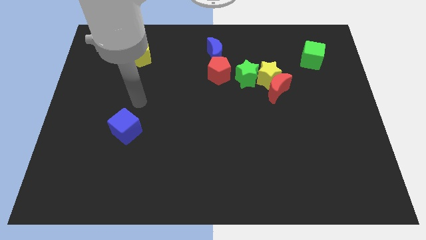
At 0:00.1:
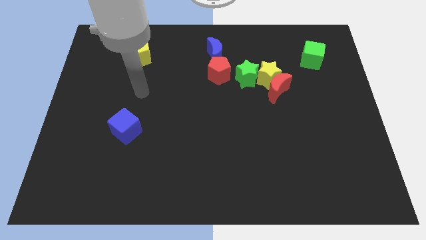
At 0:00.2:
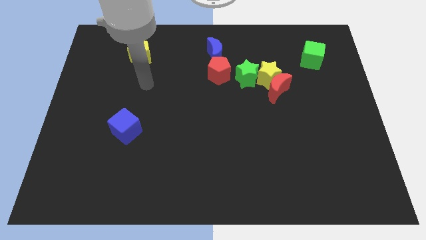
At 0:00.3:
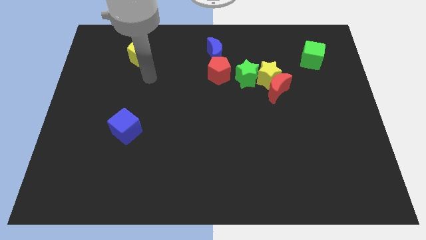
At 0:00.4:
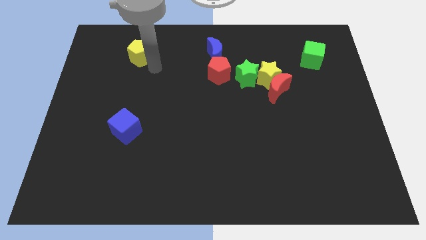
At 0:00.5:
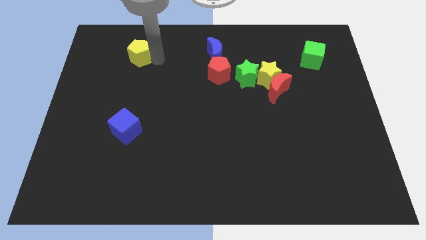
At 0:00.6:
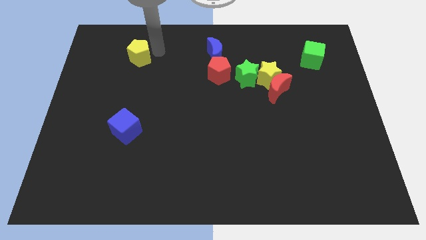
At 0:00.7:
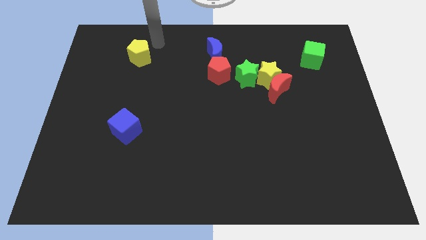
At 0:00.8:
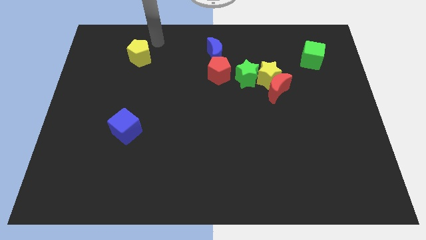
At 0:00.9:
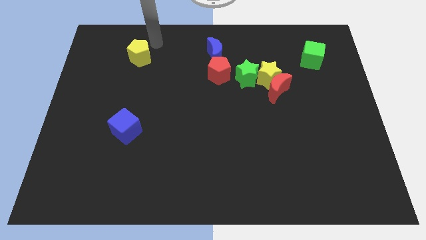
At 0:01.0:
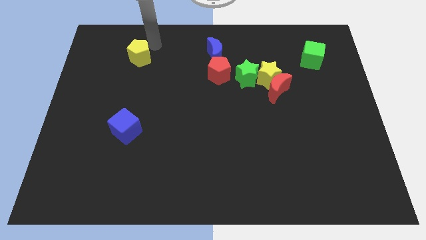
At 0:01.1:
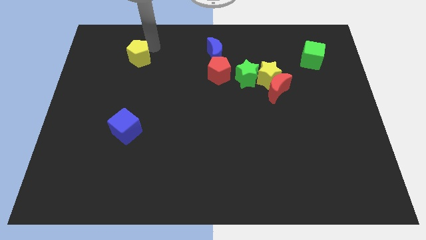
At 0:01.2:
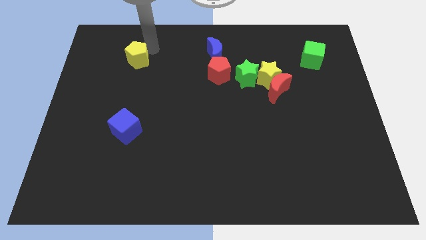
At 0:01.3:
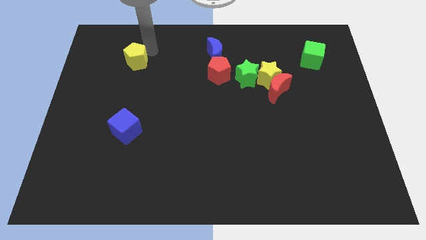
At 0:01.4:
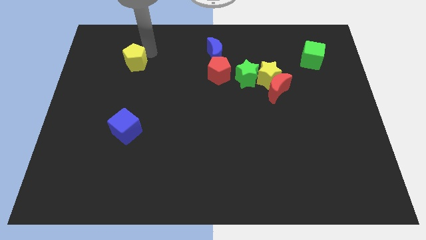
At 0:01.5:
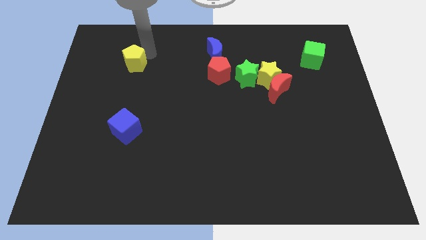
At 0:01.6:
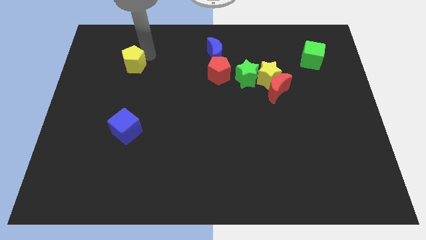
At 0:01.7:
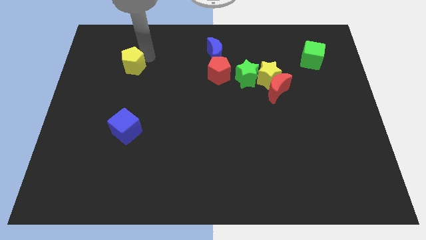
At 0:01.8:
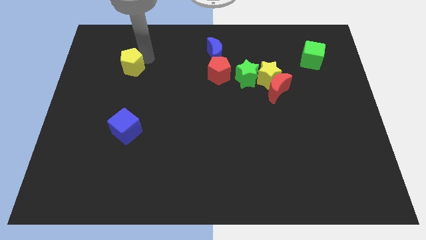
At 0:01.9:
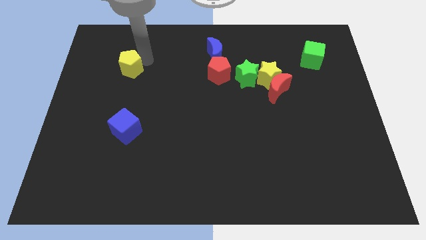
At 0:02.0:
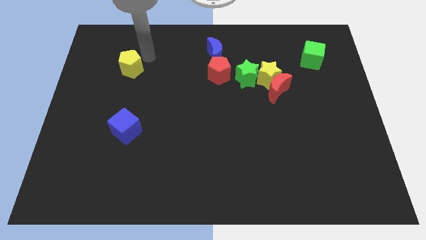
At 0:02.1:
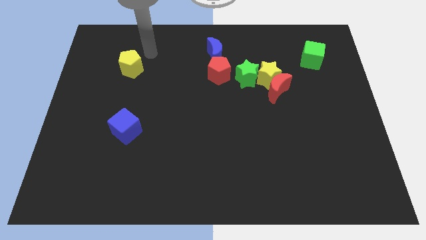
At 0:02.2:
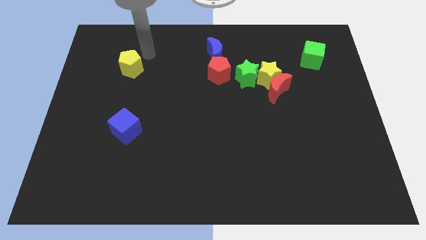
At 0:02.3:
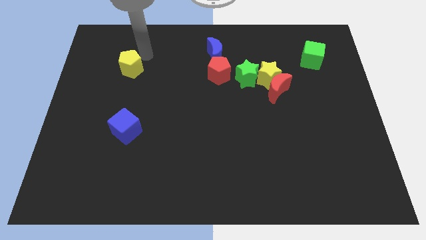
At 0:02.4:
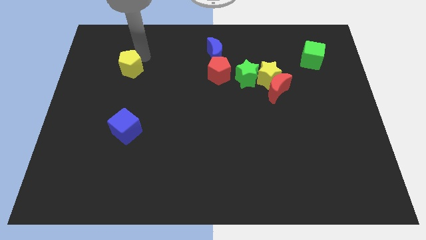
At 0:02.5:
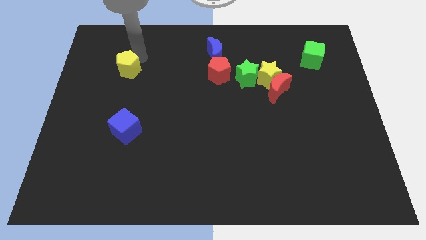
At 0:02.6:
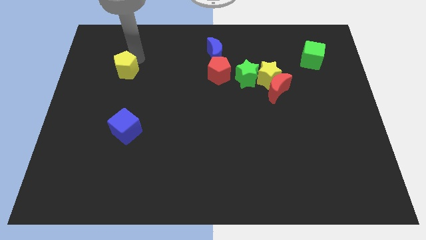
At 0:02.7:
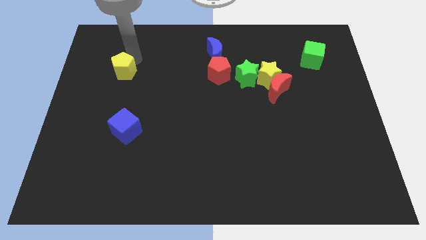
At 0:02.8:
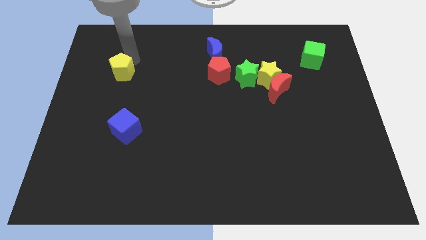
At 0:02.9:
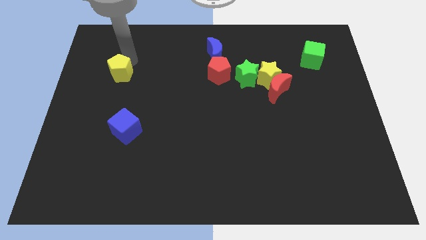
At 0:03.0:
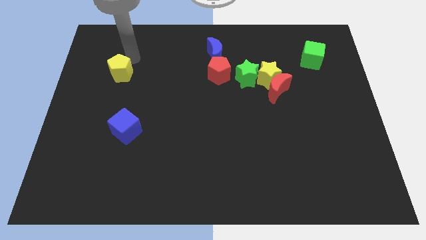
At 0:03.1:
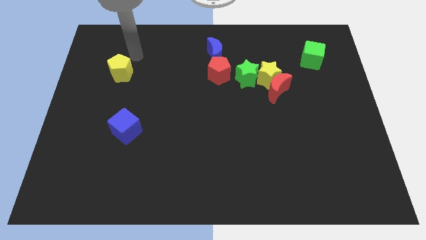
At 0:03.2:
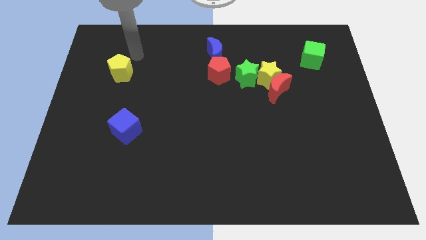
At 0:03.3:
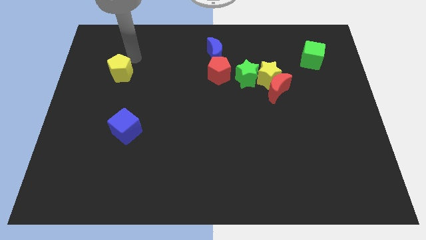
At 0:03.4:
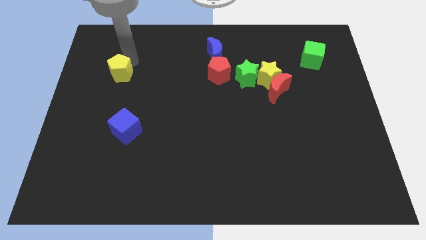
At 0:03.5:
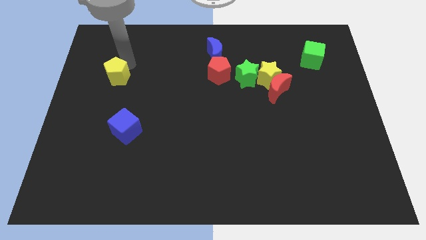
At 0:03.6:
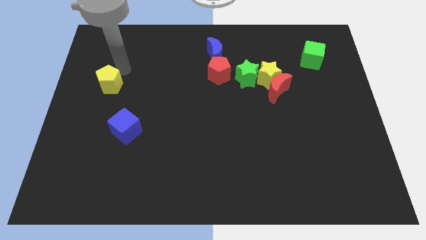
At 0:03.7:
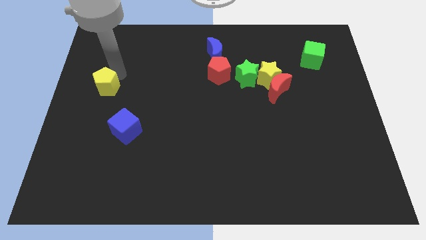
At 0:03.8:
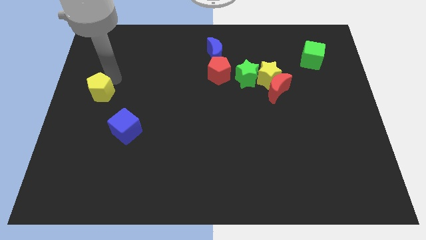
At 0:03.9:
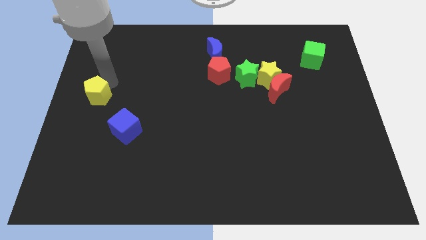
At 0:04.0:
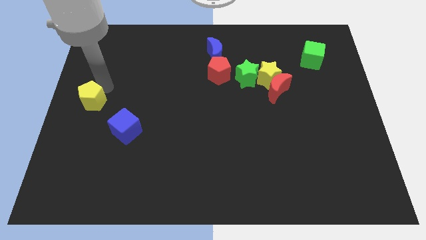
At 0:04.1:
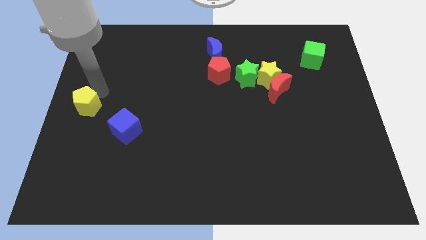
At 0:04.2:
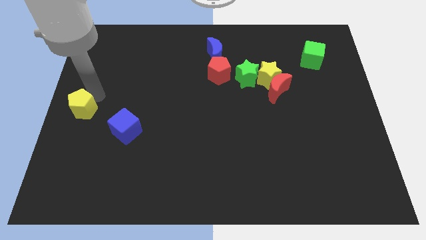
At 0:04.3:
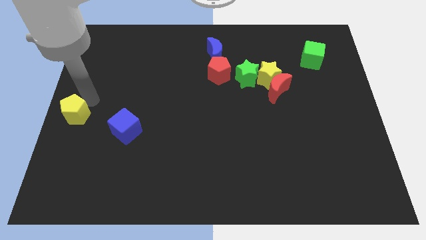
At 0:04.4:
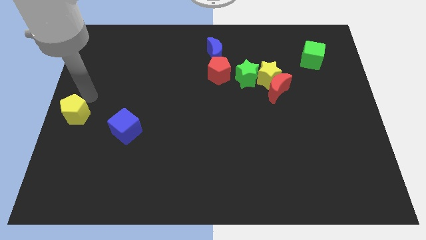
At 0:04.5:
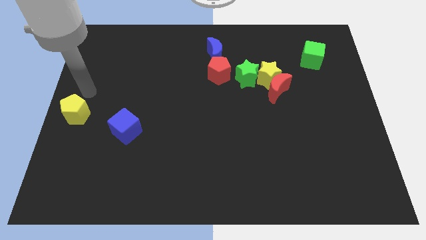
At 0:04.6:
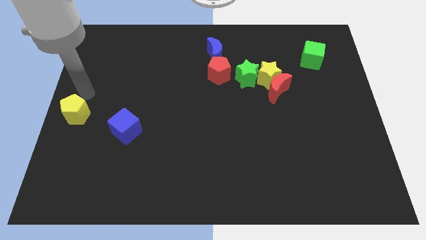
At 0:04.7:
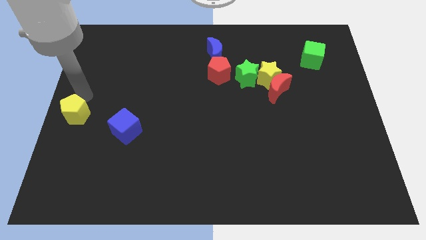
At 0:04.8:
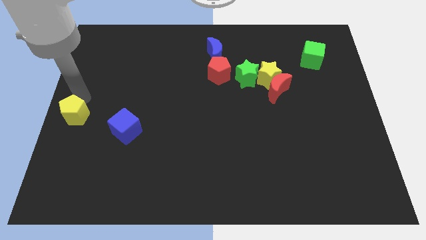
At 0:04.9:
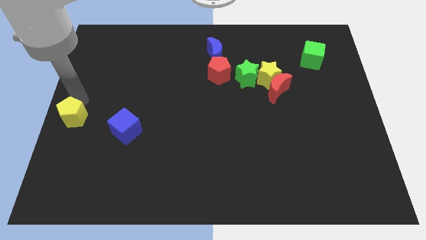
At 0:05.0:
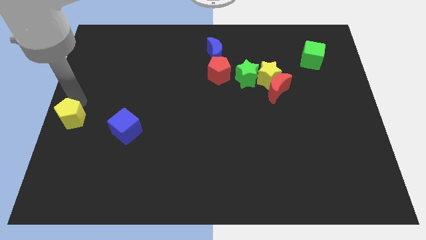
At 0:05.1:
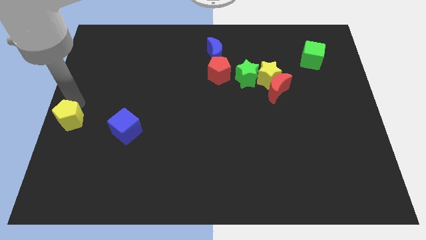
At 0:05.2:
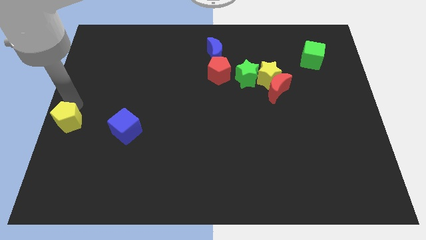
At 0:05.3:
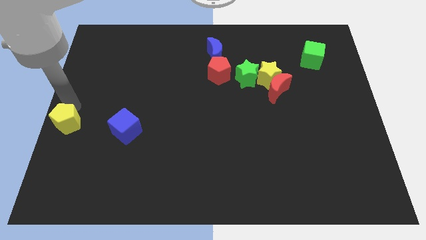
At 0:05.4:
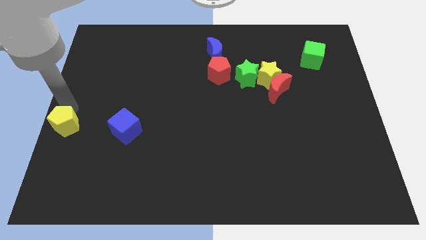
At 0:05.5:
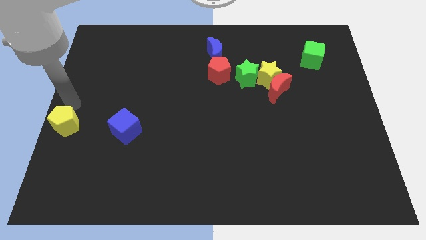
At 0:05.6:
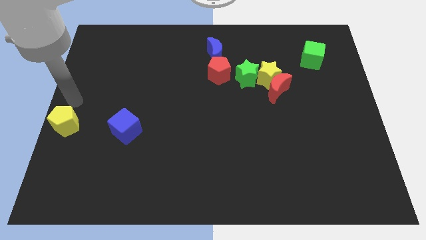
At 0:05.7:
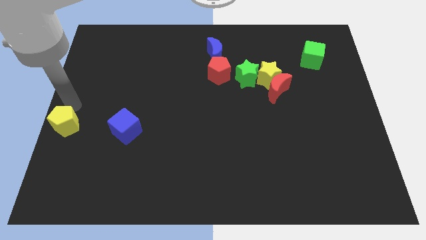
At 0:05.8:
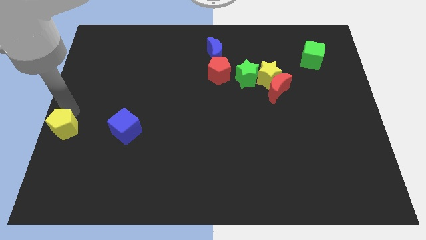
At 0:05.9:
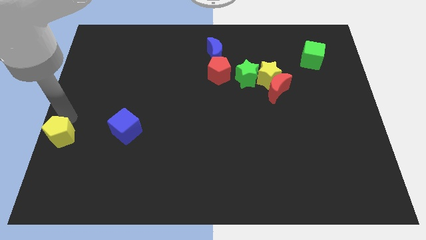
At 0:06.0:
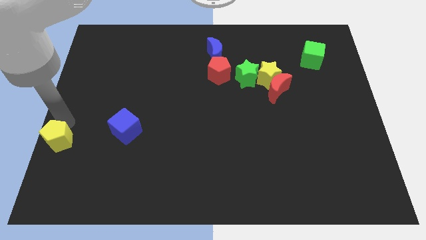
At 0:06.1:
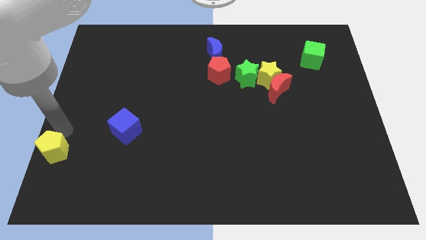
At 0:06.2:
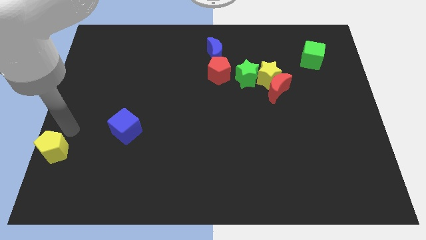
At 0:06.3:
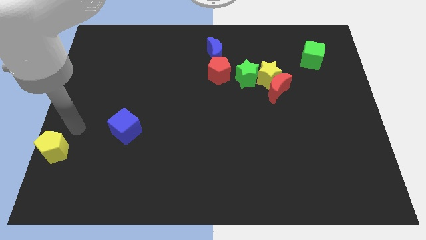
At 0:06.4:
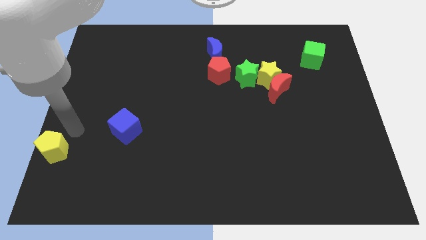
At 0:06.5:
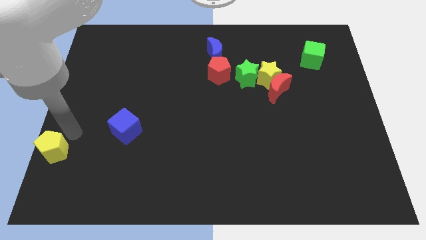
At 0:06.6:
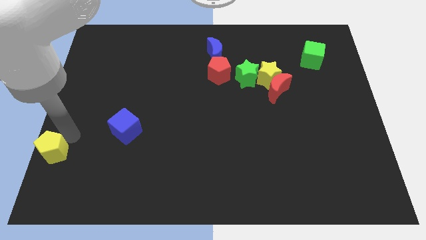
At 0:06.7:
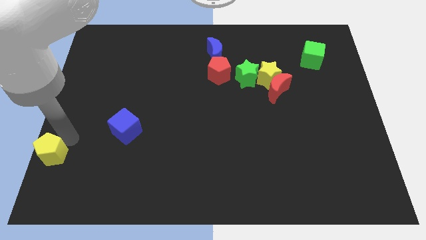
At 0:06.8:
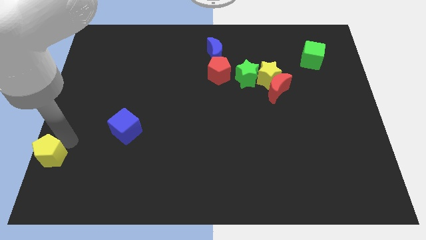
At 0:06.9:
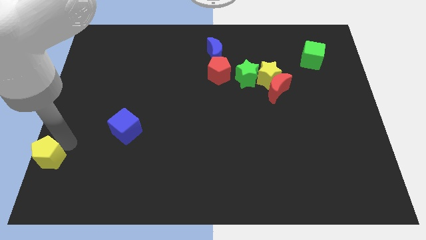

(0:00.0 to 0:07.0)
slide the yellow pentagon to the bottom left corner

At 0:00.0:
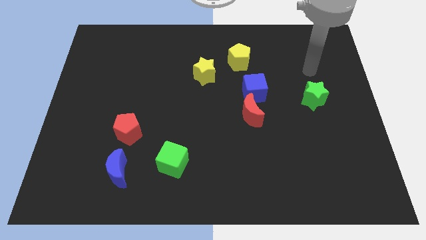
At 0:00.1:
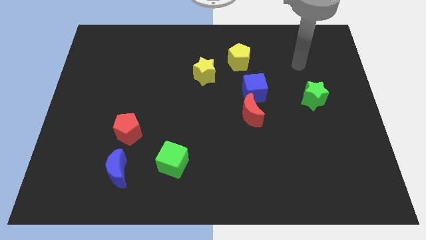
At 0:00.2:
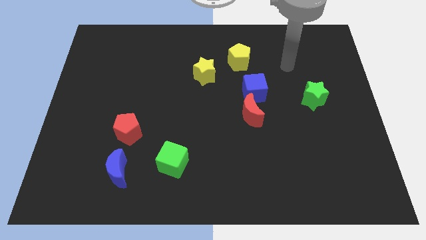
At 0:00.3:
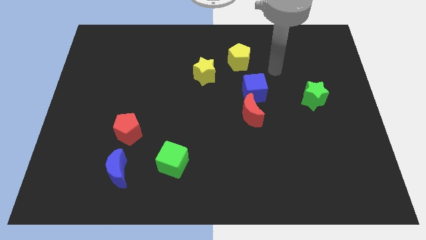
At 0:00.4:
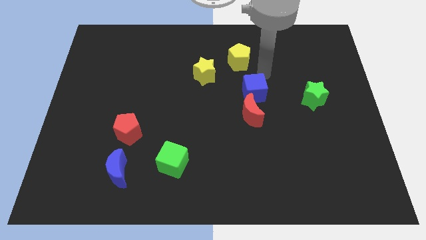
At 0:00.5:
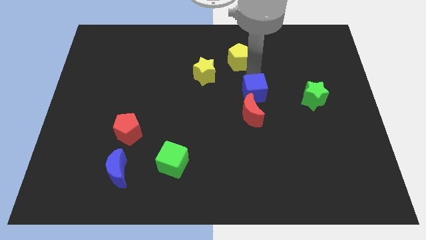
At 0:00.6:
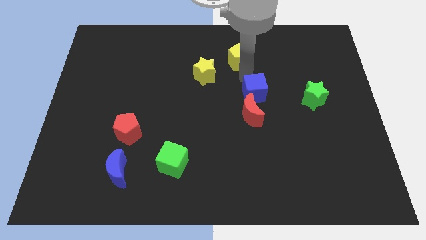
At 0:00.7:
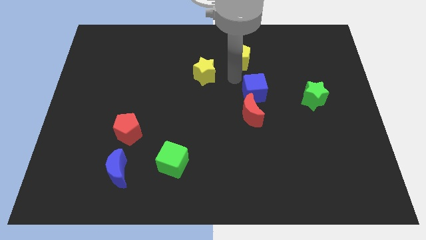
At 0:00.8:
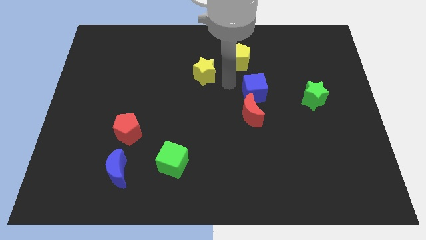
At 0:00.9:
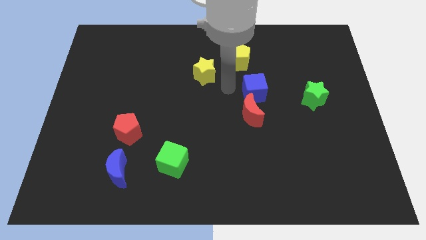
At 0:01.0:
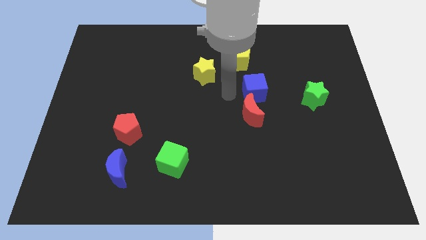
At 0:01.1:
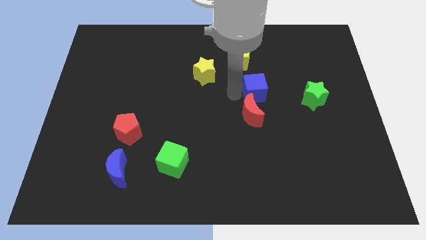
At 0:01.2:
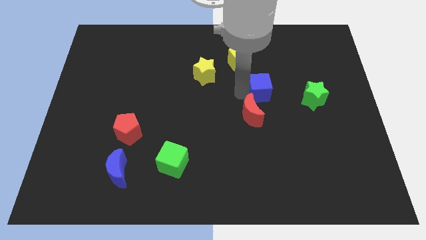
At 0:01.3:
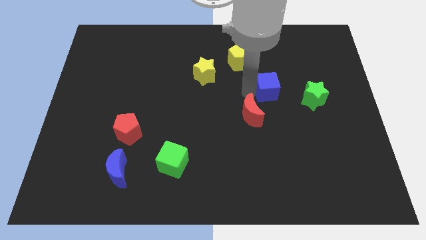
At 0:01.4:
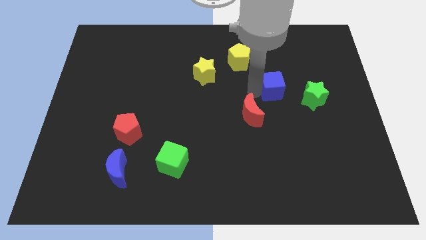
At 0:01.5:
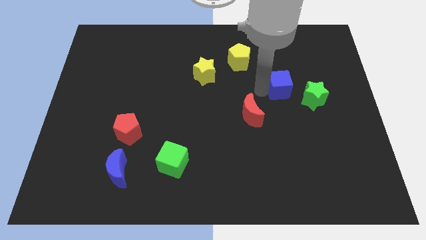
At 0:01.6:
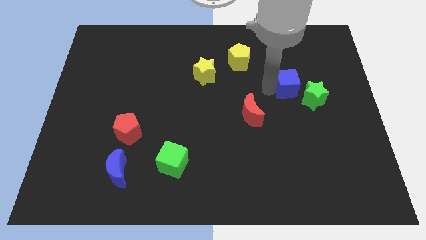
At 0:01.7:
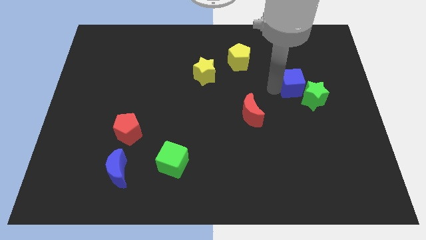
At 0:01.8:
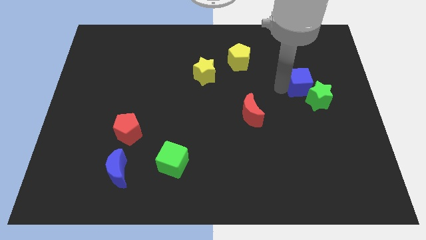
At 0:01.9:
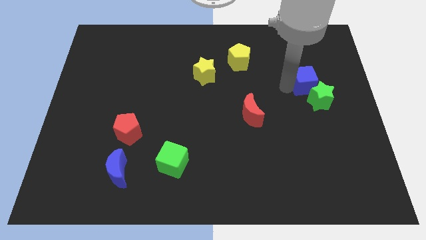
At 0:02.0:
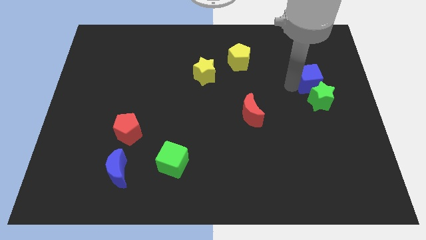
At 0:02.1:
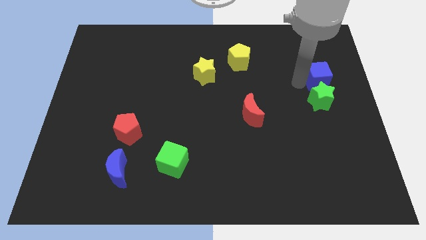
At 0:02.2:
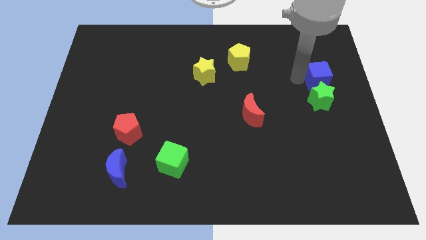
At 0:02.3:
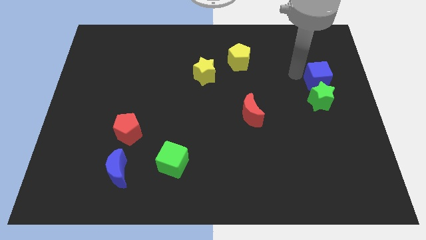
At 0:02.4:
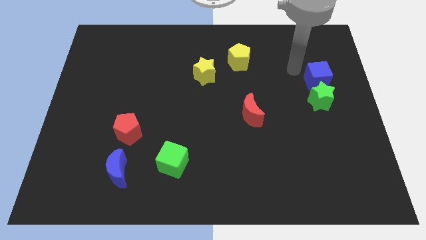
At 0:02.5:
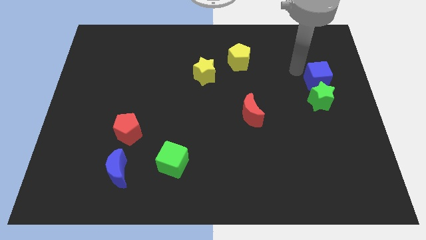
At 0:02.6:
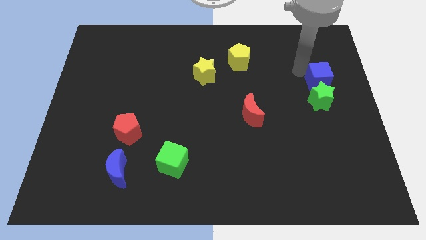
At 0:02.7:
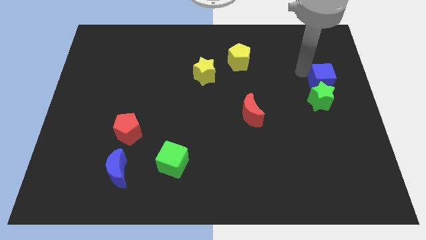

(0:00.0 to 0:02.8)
push the blue cube to the right side
